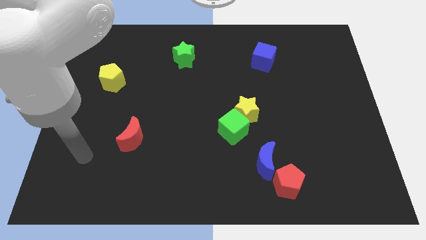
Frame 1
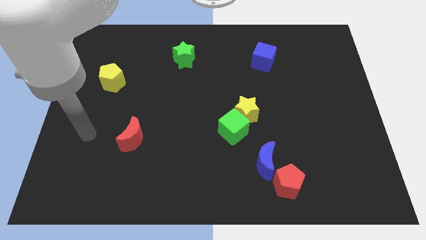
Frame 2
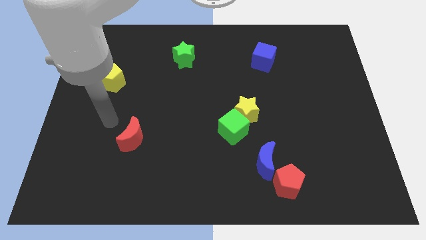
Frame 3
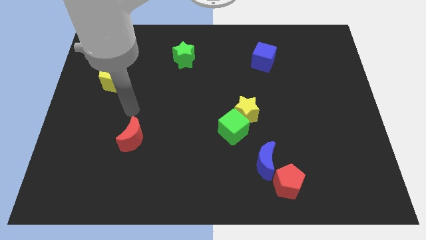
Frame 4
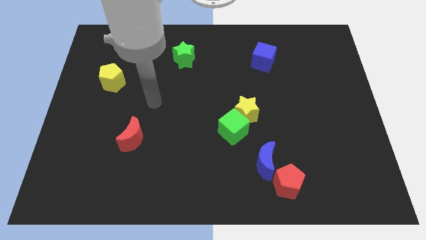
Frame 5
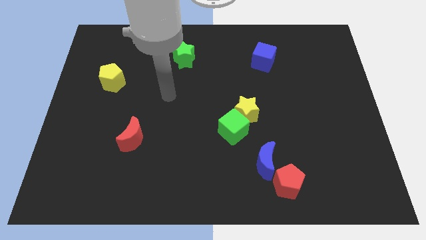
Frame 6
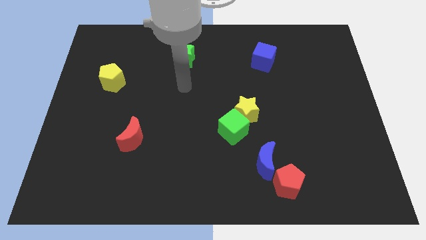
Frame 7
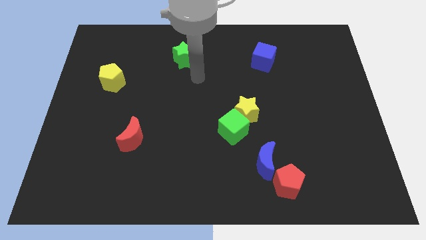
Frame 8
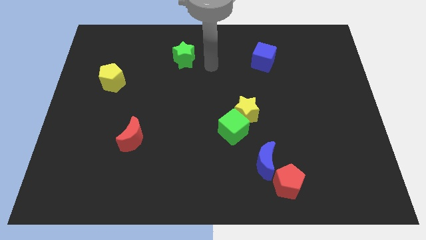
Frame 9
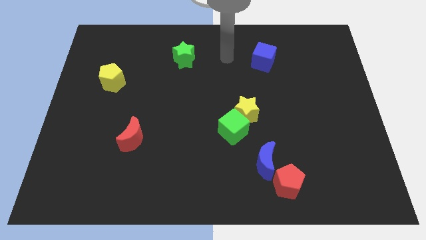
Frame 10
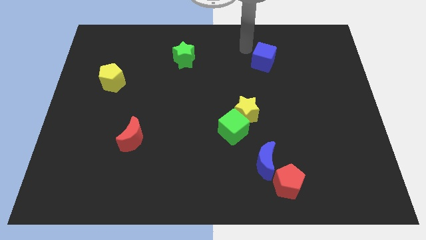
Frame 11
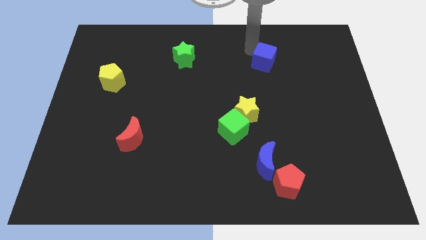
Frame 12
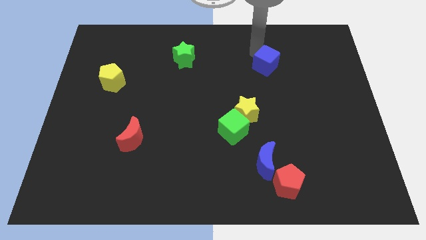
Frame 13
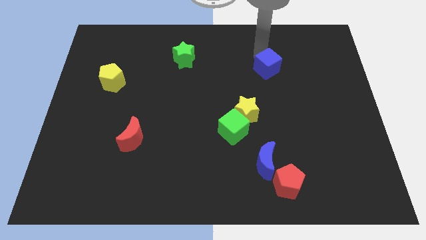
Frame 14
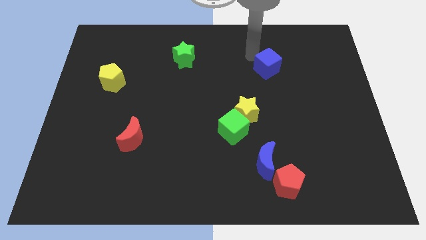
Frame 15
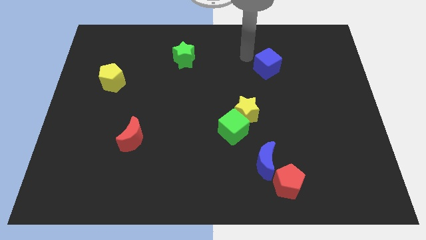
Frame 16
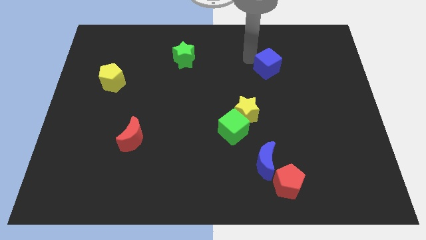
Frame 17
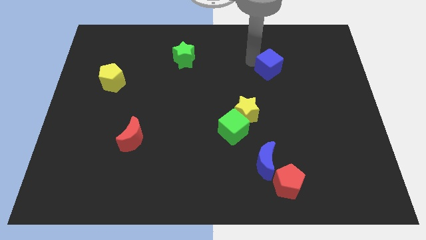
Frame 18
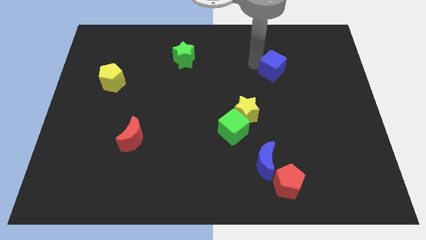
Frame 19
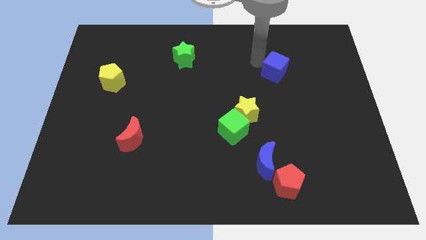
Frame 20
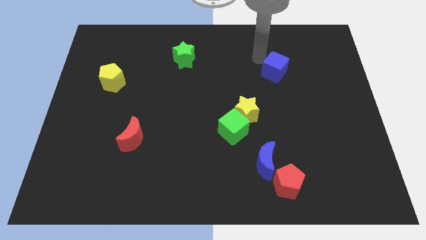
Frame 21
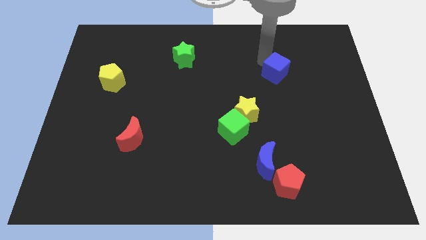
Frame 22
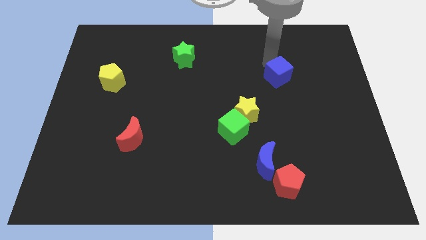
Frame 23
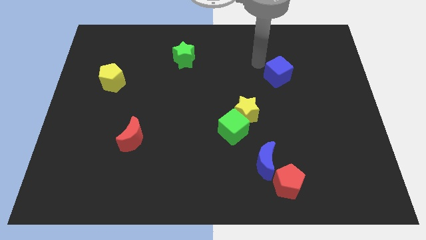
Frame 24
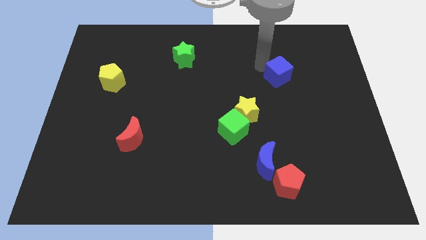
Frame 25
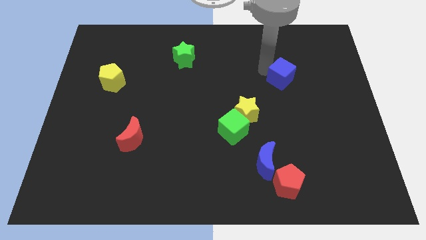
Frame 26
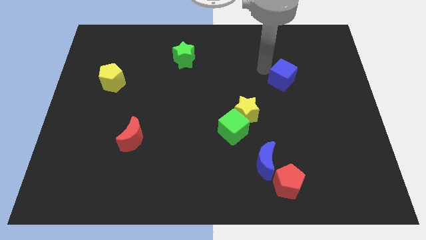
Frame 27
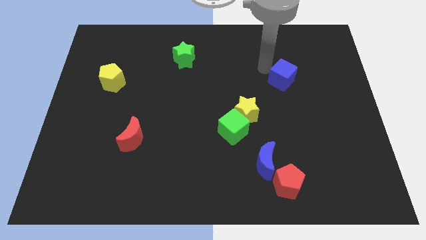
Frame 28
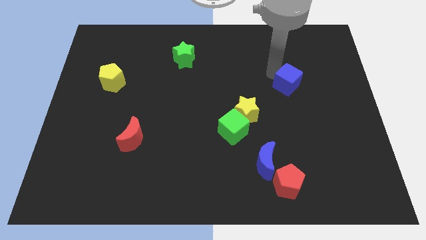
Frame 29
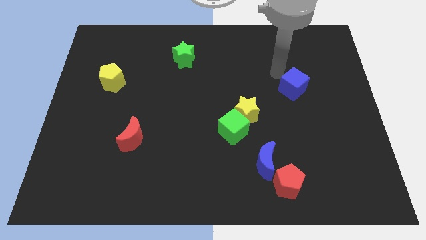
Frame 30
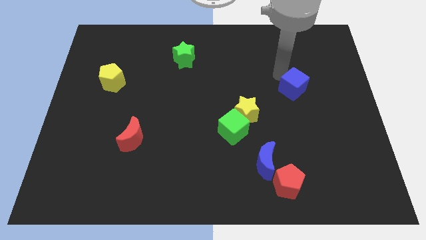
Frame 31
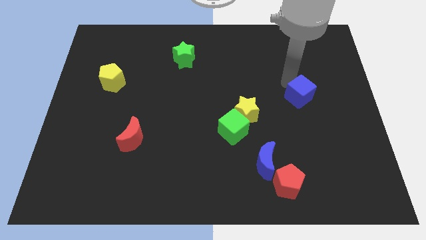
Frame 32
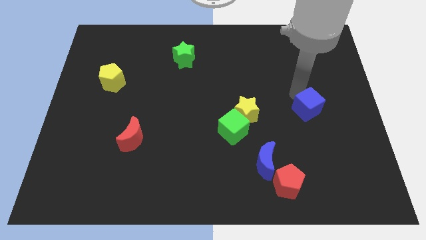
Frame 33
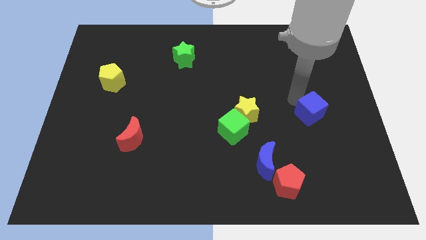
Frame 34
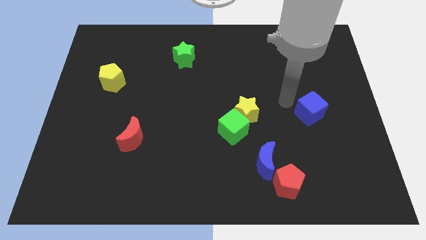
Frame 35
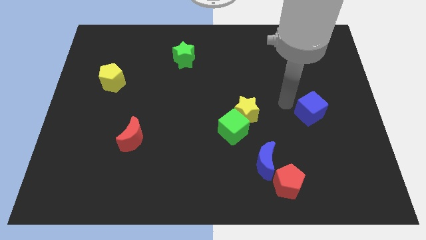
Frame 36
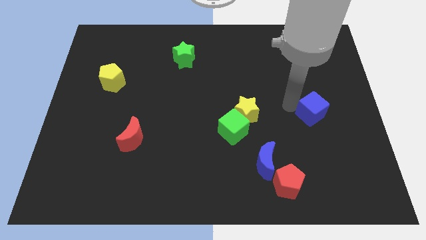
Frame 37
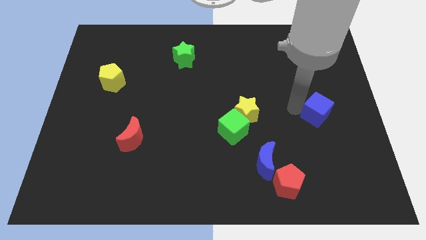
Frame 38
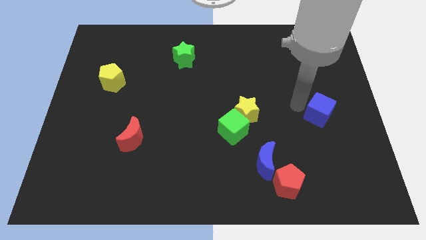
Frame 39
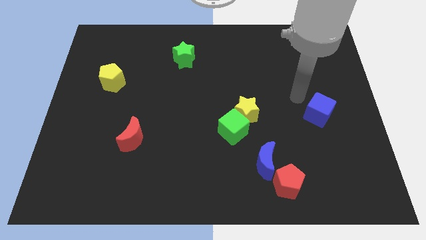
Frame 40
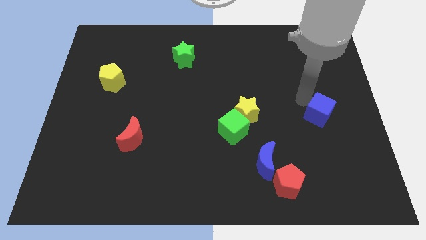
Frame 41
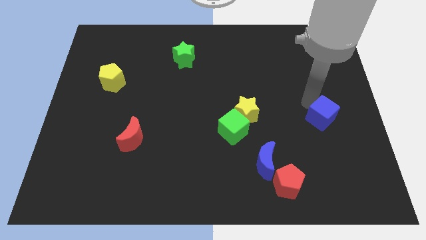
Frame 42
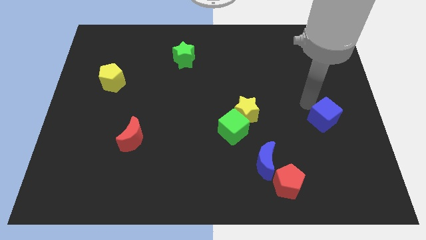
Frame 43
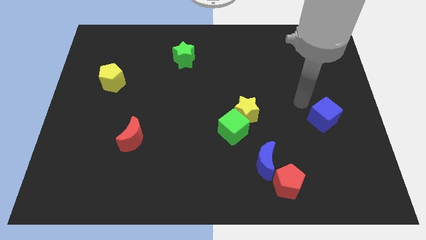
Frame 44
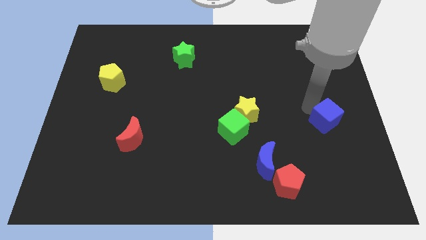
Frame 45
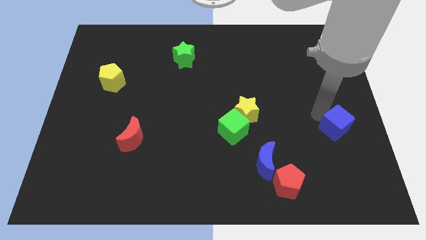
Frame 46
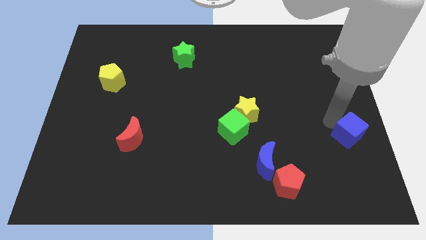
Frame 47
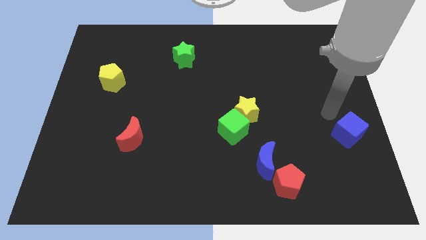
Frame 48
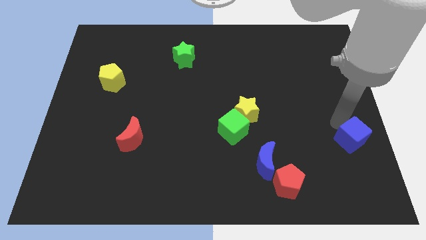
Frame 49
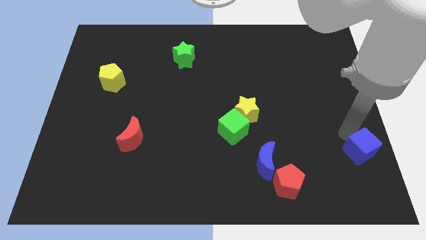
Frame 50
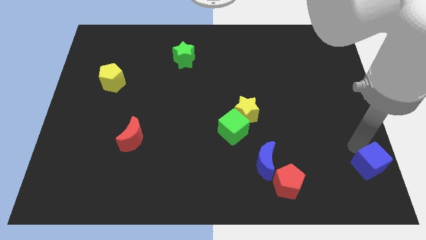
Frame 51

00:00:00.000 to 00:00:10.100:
put the blue cube to the bottom right corner
